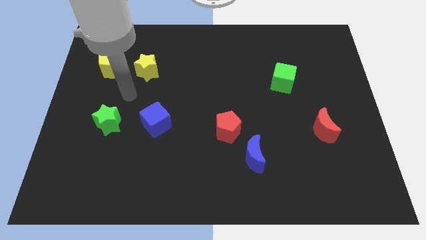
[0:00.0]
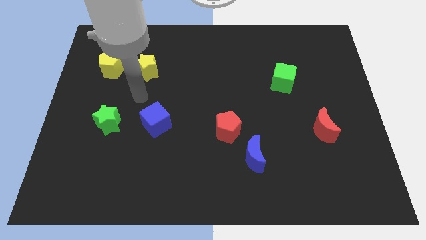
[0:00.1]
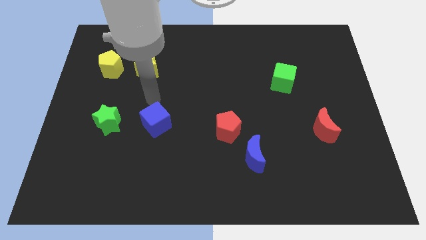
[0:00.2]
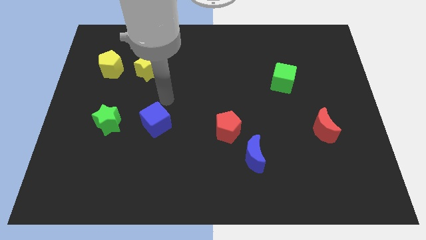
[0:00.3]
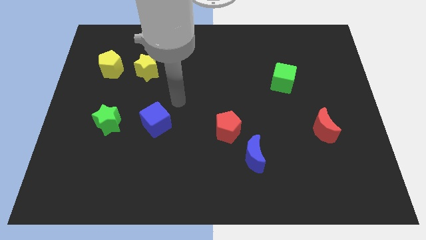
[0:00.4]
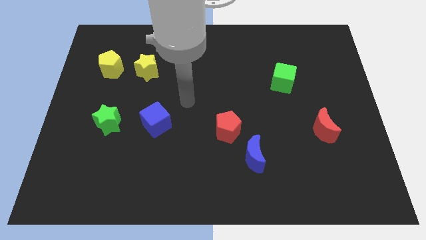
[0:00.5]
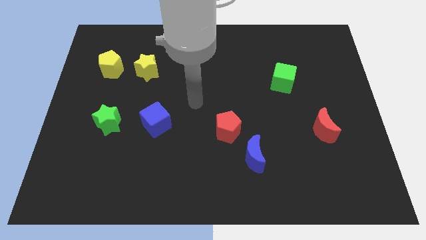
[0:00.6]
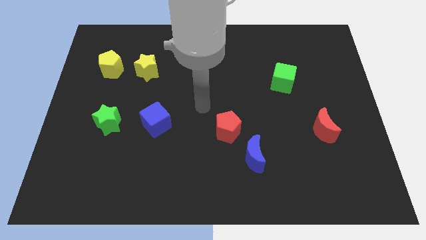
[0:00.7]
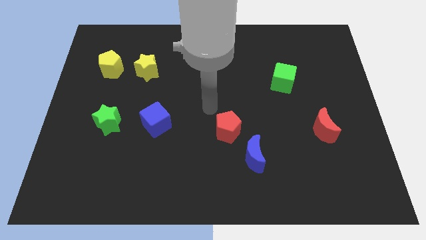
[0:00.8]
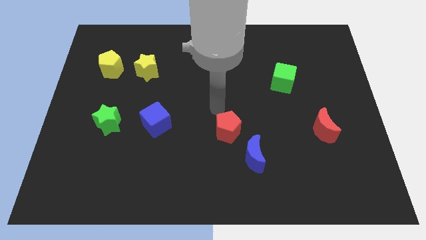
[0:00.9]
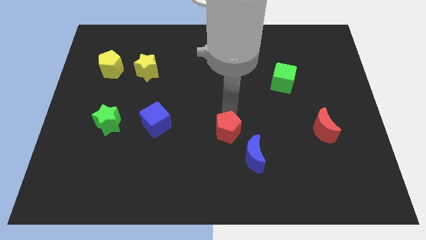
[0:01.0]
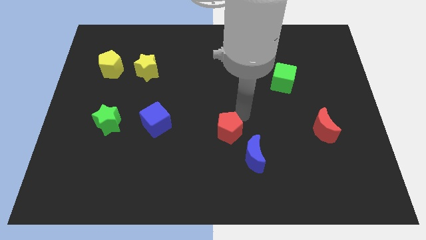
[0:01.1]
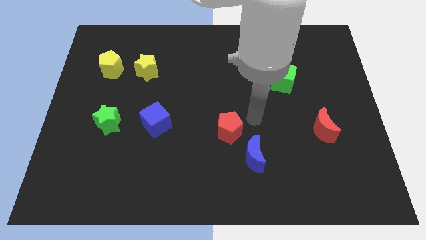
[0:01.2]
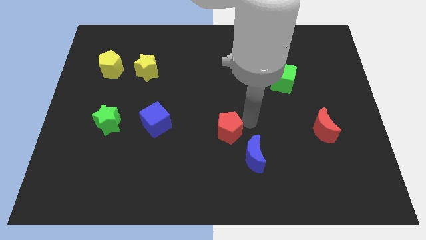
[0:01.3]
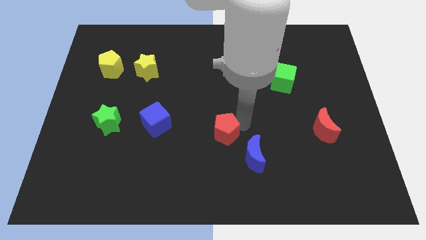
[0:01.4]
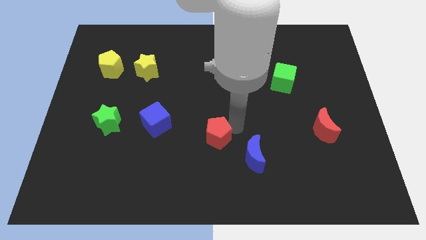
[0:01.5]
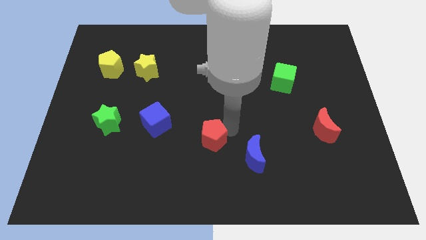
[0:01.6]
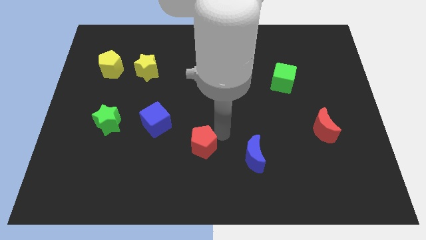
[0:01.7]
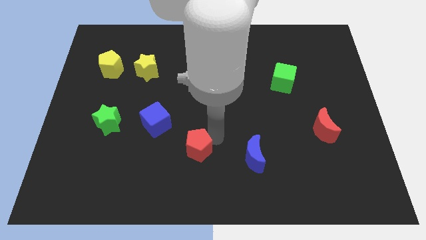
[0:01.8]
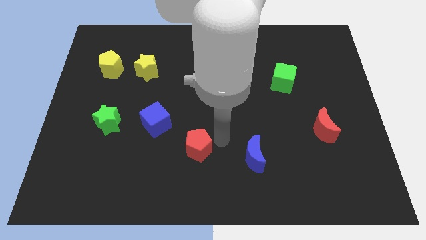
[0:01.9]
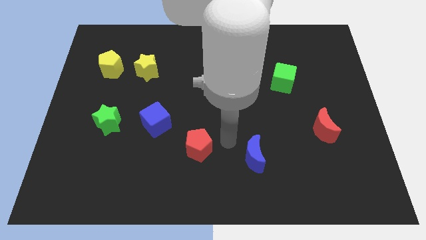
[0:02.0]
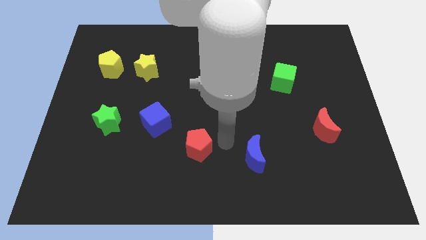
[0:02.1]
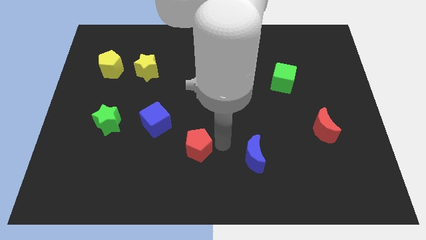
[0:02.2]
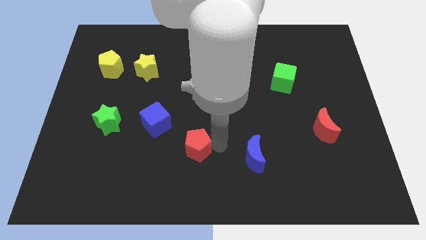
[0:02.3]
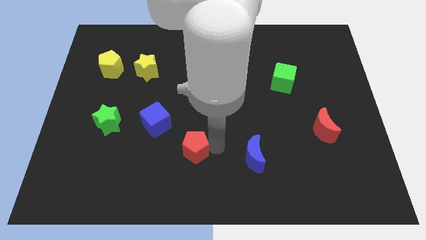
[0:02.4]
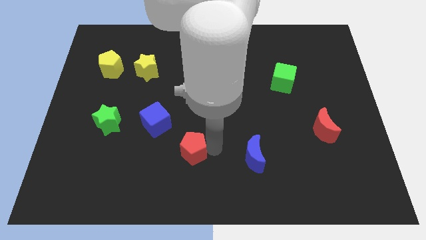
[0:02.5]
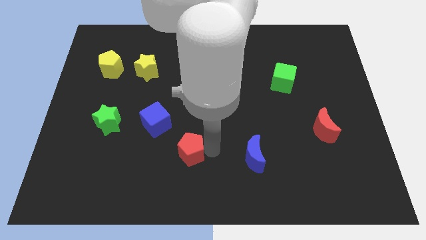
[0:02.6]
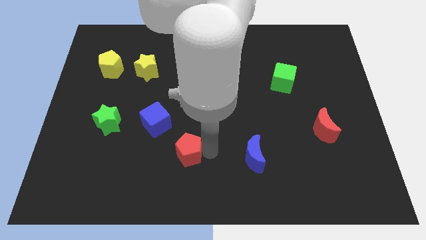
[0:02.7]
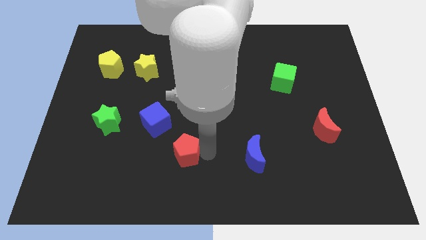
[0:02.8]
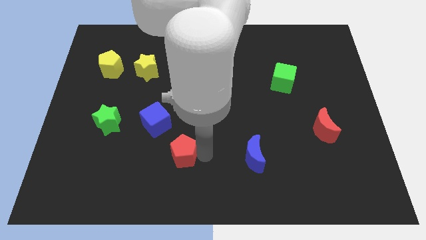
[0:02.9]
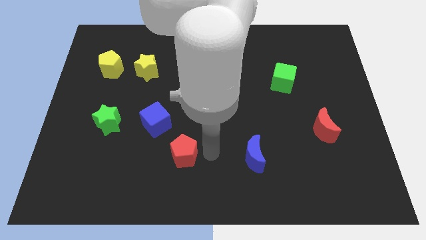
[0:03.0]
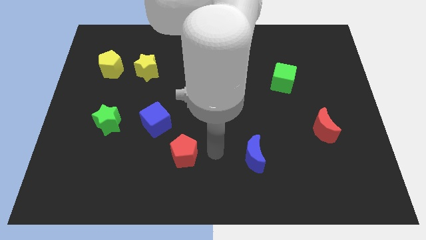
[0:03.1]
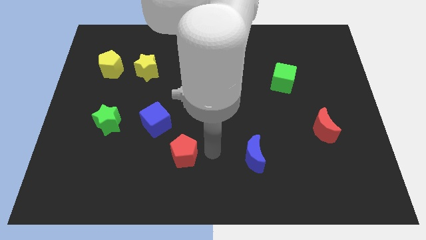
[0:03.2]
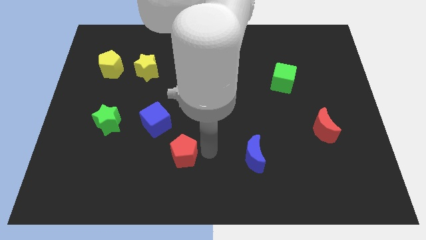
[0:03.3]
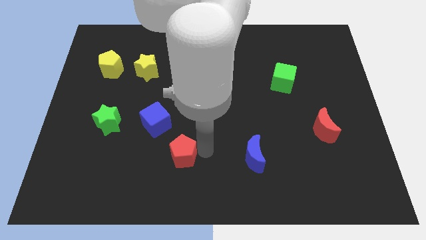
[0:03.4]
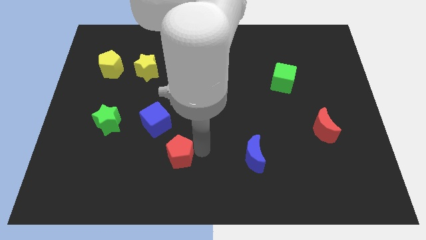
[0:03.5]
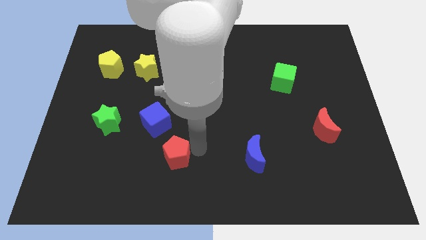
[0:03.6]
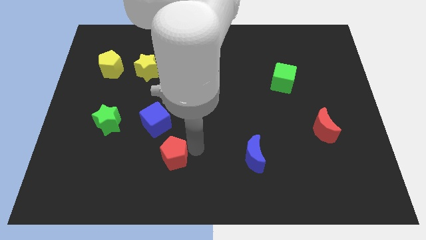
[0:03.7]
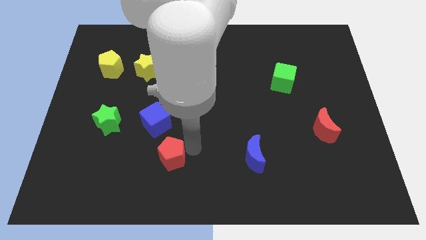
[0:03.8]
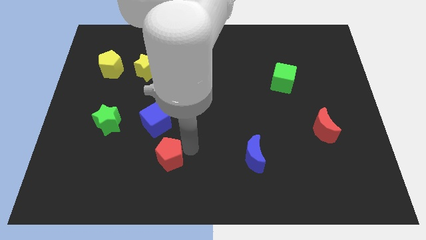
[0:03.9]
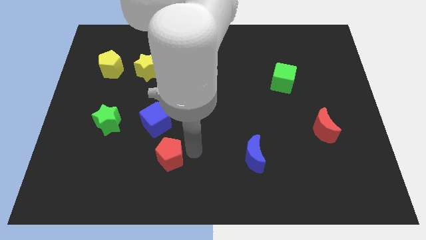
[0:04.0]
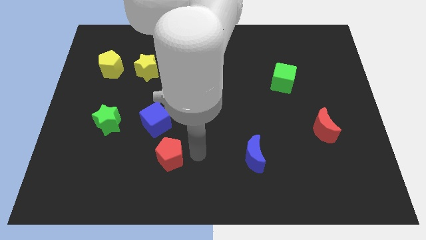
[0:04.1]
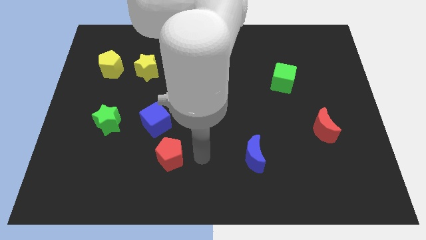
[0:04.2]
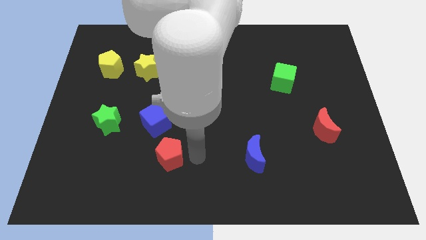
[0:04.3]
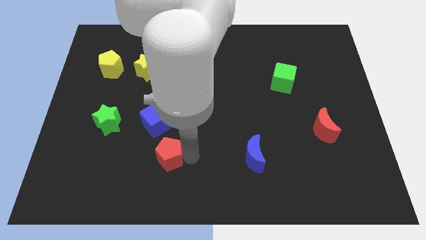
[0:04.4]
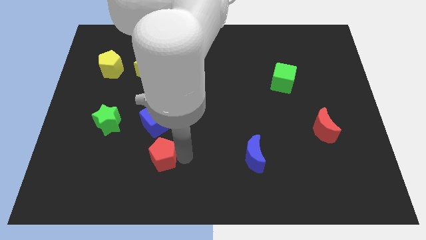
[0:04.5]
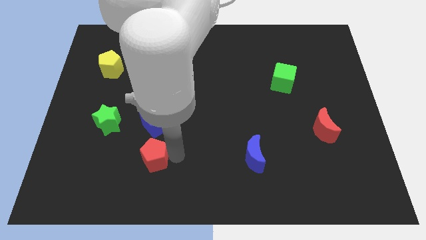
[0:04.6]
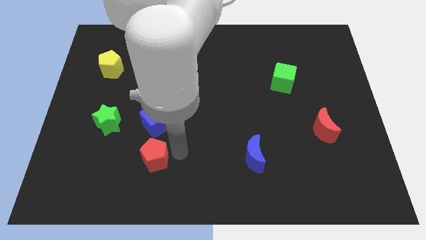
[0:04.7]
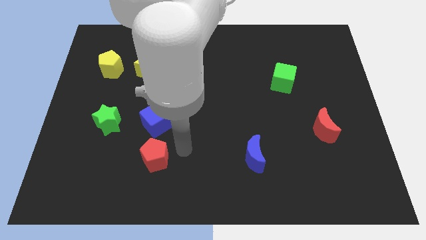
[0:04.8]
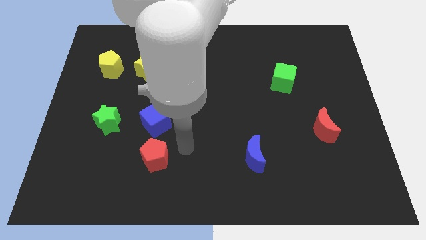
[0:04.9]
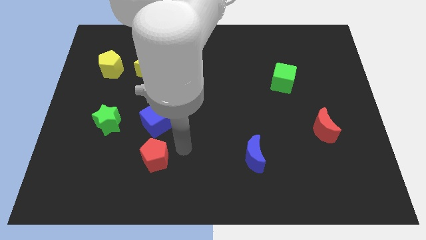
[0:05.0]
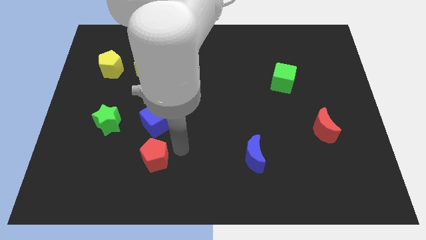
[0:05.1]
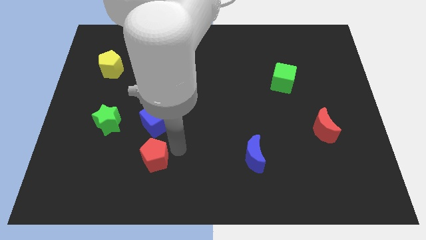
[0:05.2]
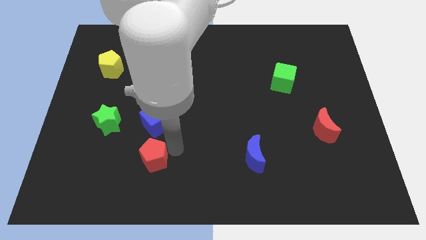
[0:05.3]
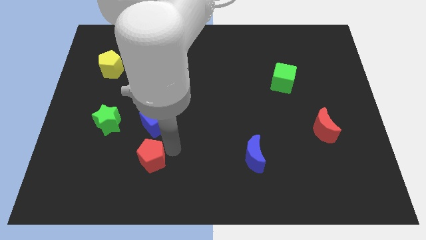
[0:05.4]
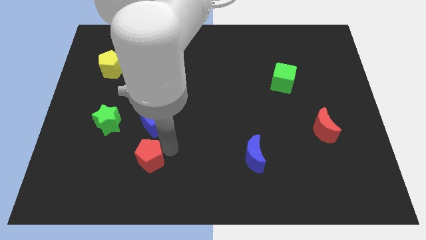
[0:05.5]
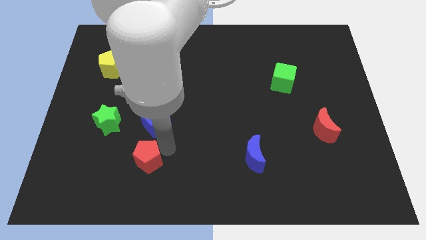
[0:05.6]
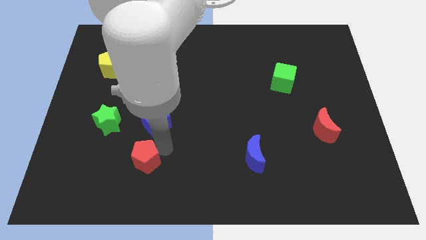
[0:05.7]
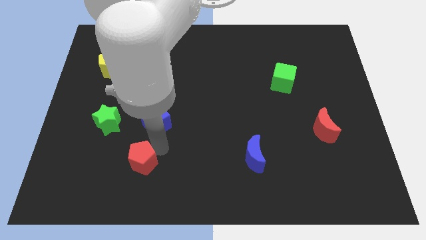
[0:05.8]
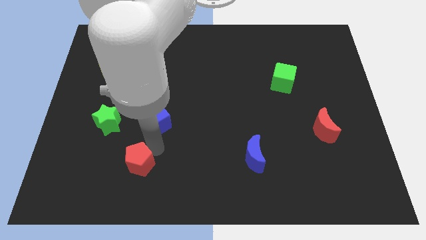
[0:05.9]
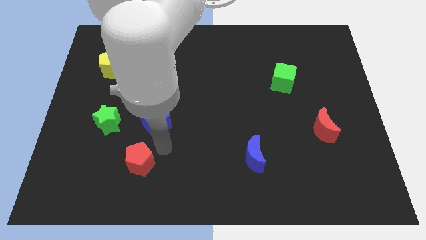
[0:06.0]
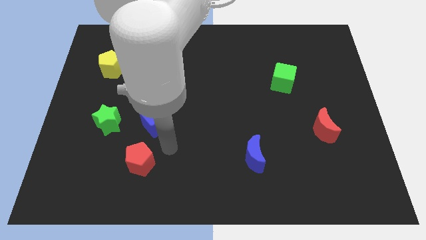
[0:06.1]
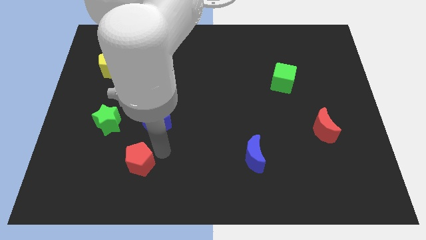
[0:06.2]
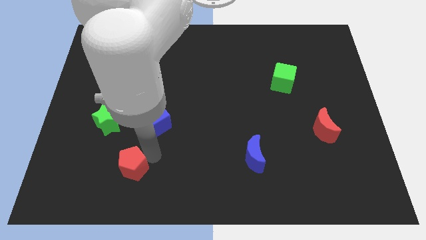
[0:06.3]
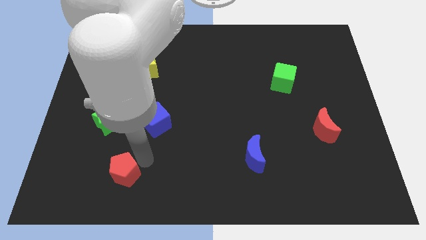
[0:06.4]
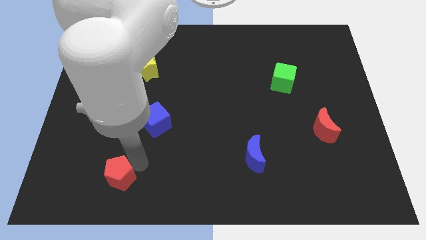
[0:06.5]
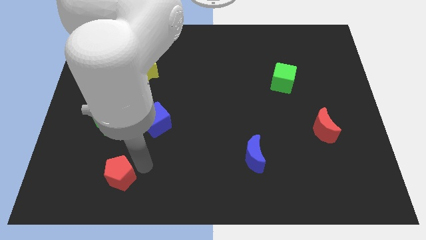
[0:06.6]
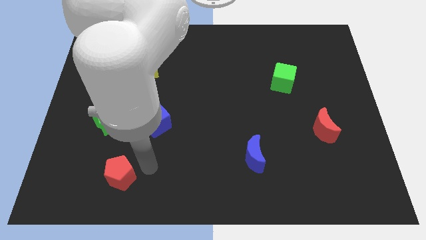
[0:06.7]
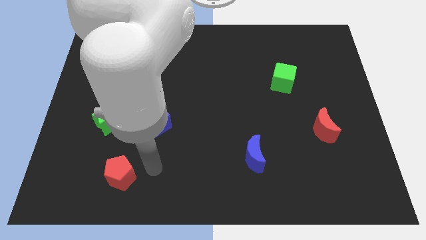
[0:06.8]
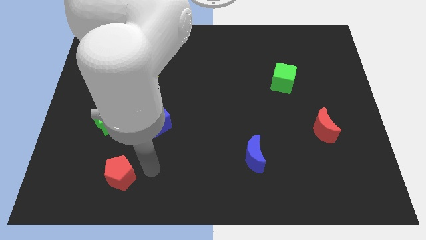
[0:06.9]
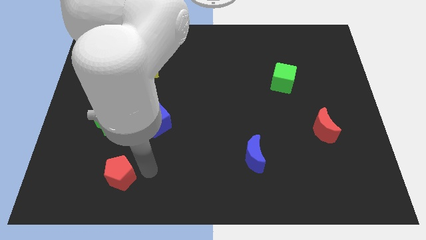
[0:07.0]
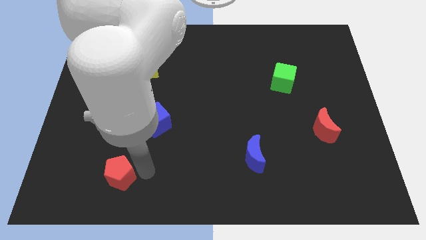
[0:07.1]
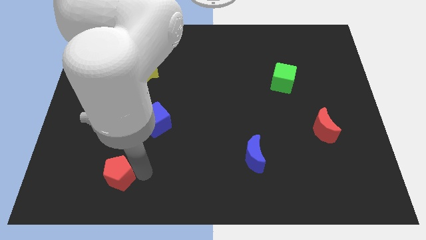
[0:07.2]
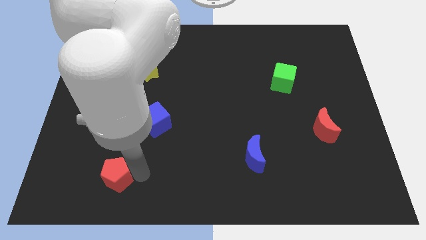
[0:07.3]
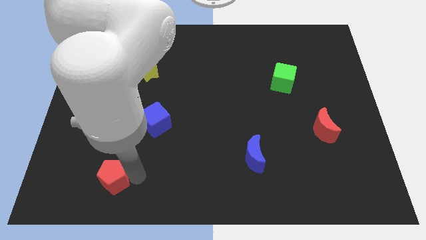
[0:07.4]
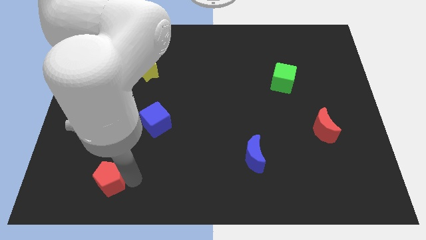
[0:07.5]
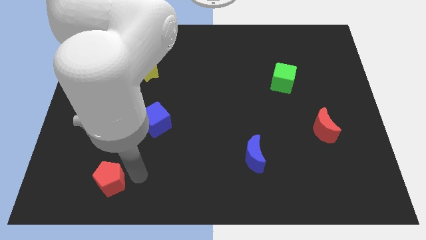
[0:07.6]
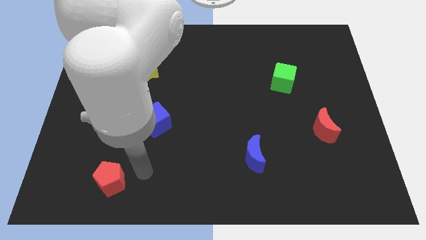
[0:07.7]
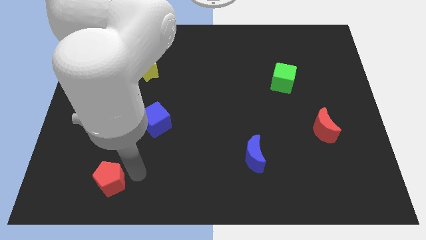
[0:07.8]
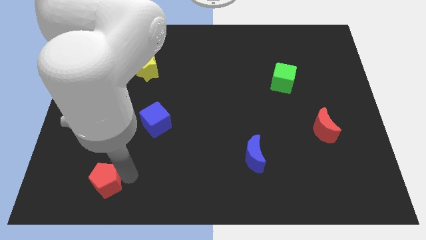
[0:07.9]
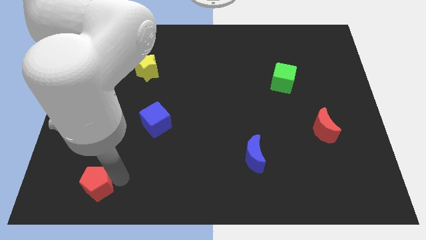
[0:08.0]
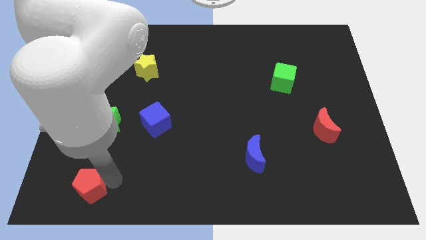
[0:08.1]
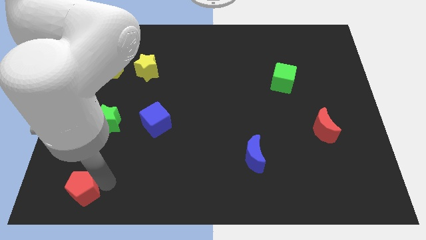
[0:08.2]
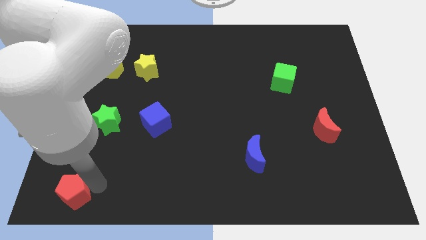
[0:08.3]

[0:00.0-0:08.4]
put the red pentagon to the bottom left of the board
